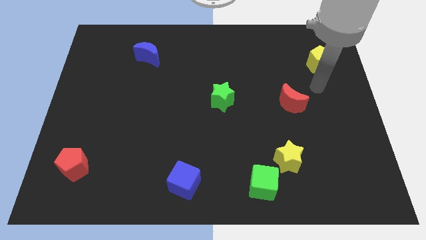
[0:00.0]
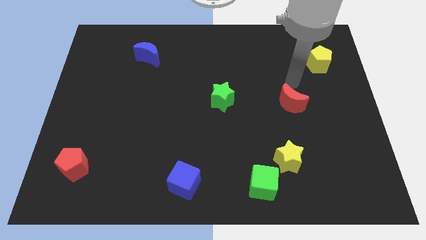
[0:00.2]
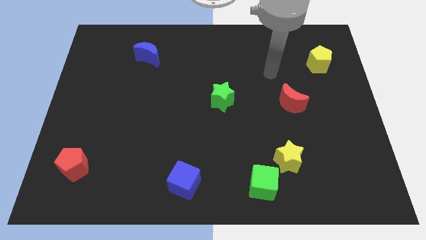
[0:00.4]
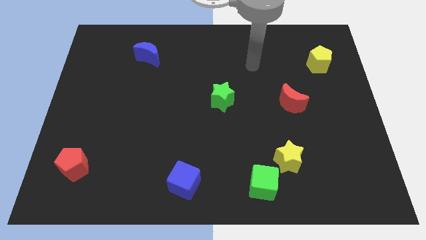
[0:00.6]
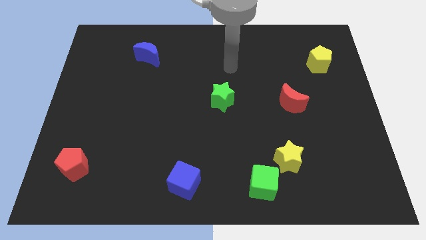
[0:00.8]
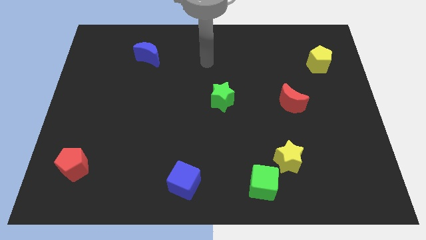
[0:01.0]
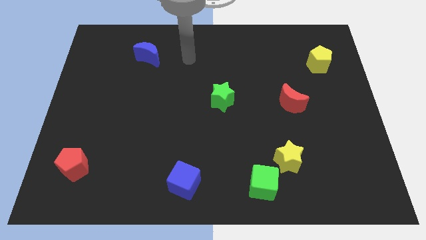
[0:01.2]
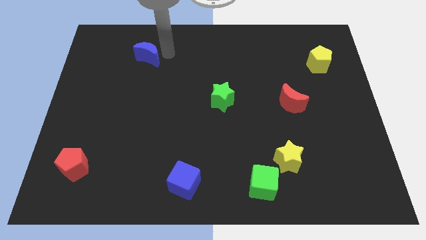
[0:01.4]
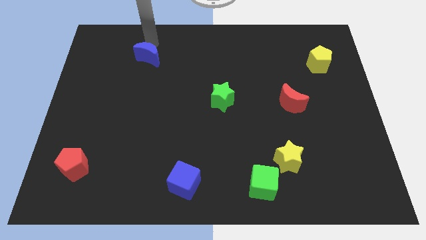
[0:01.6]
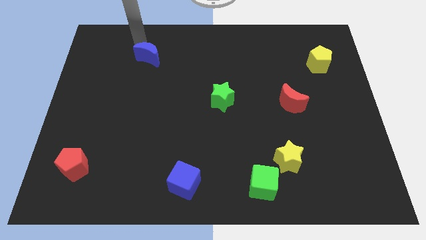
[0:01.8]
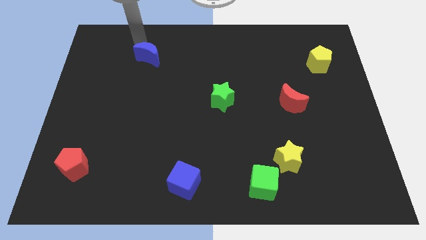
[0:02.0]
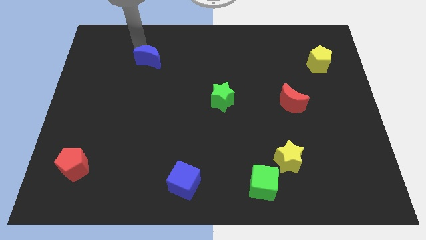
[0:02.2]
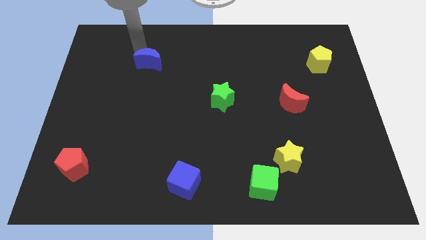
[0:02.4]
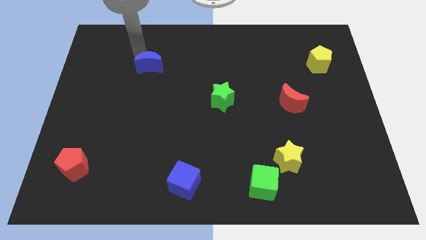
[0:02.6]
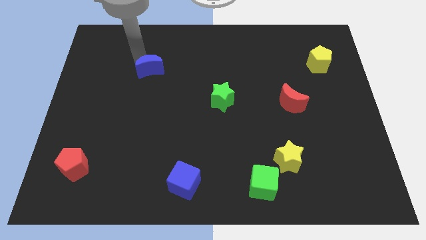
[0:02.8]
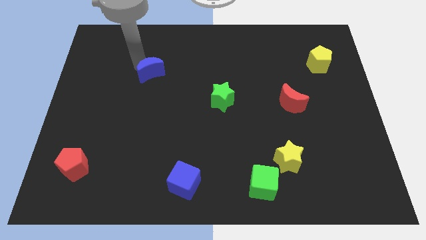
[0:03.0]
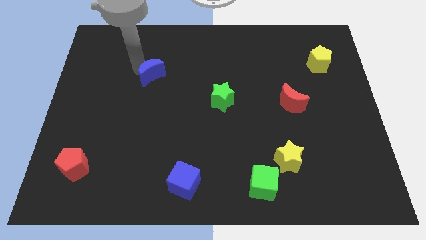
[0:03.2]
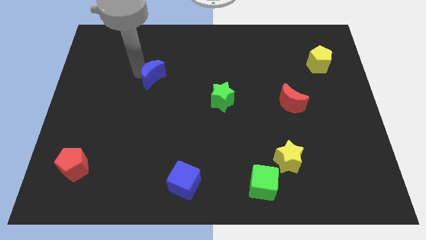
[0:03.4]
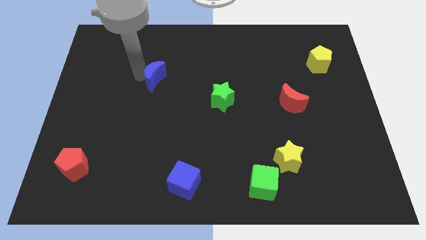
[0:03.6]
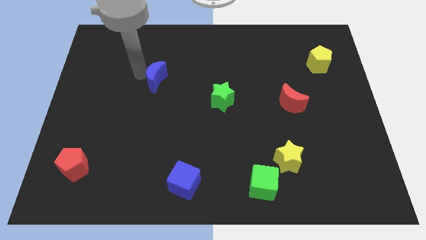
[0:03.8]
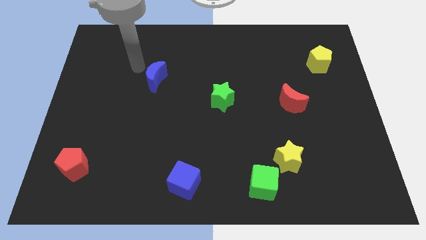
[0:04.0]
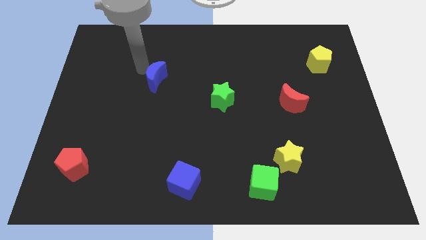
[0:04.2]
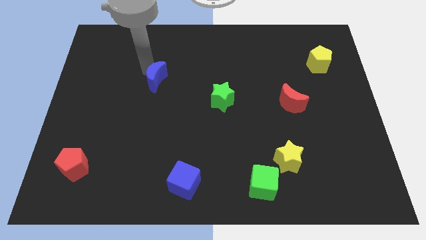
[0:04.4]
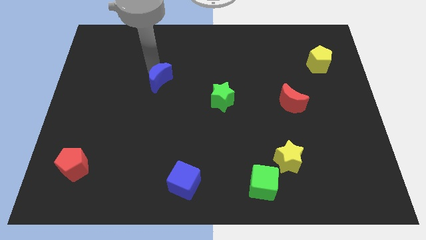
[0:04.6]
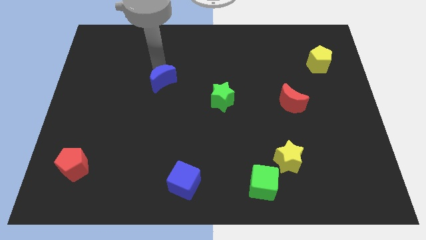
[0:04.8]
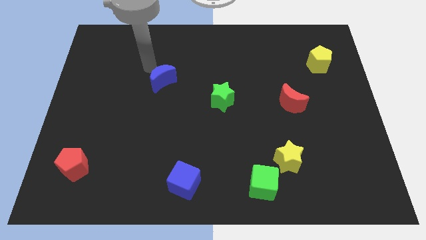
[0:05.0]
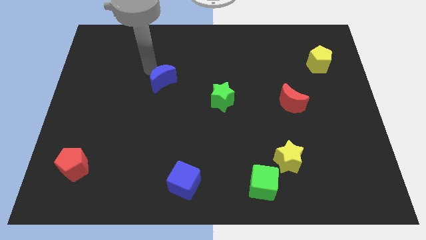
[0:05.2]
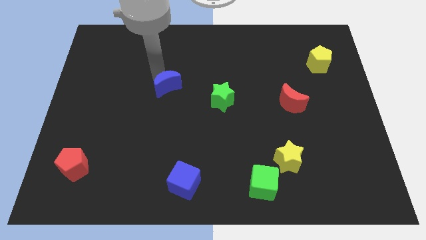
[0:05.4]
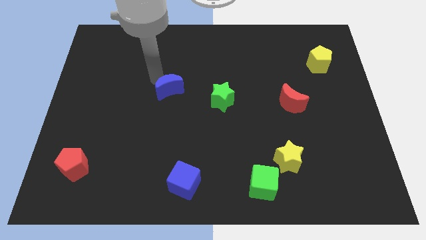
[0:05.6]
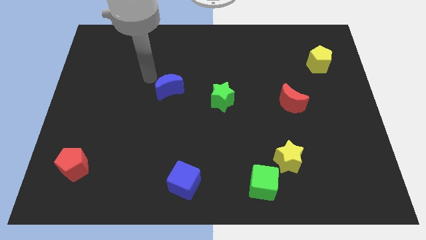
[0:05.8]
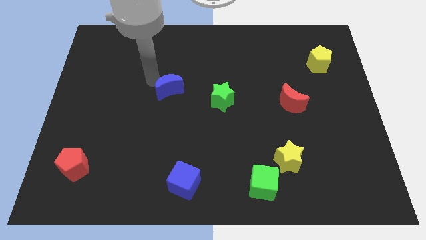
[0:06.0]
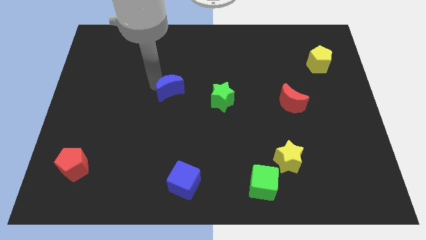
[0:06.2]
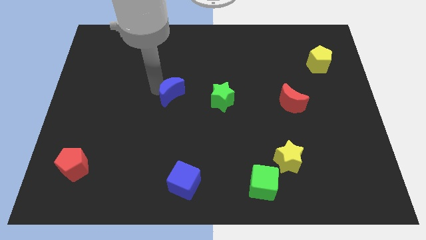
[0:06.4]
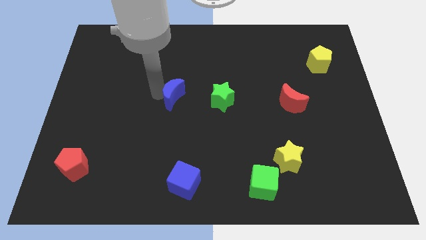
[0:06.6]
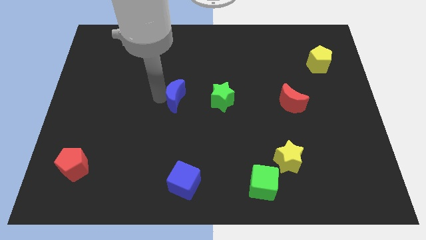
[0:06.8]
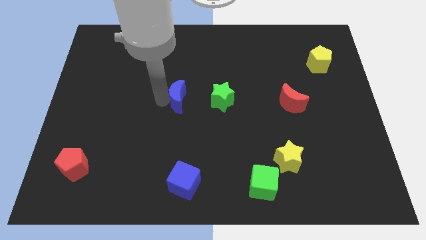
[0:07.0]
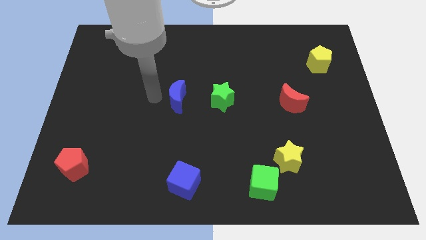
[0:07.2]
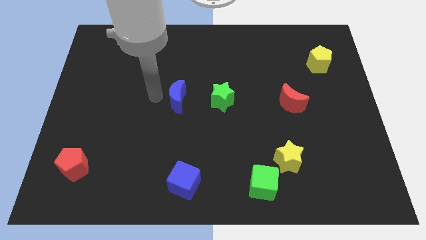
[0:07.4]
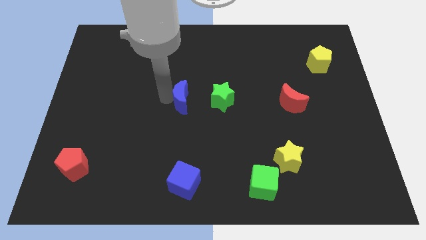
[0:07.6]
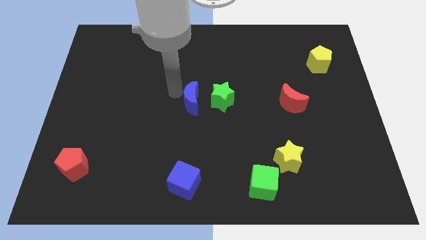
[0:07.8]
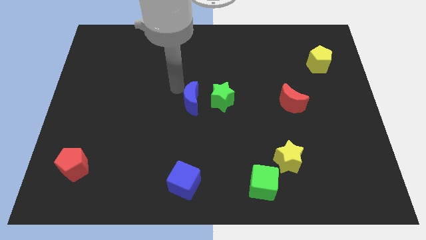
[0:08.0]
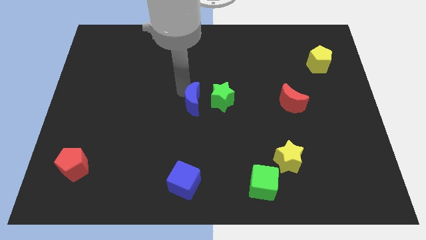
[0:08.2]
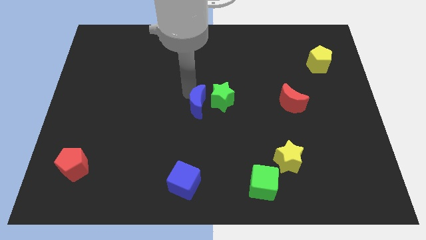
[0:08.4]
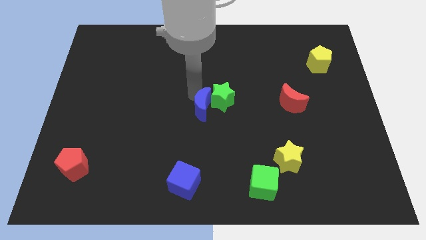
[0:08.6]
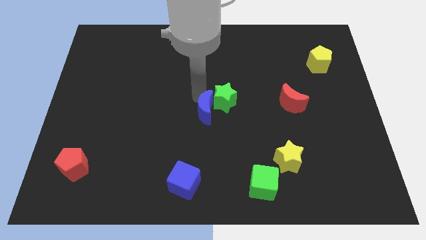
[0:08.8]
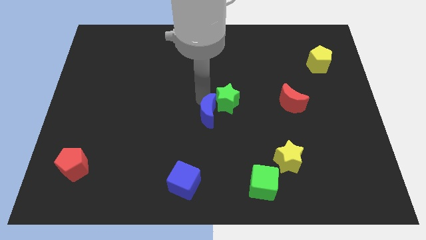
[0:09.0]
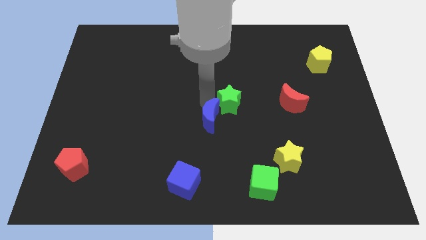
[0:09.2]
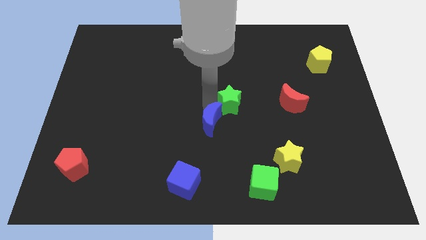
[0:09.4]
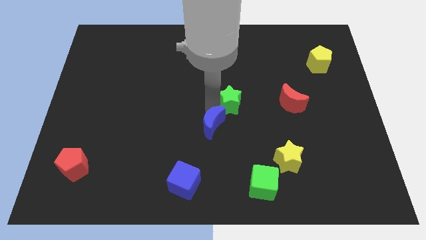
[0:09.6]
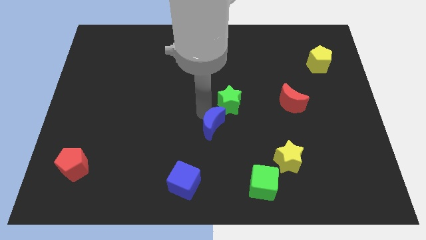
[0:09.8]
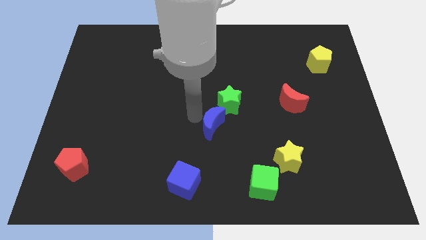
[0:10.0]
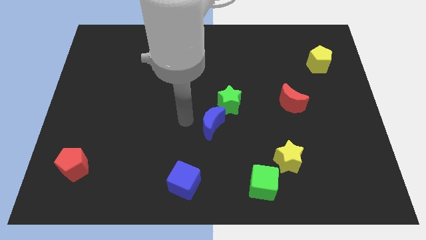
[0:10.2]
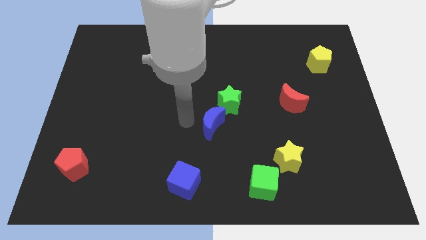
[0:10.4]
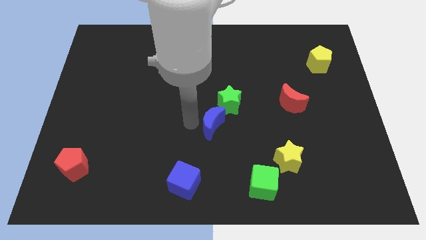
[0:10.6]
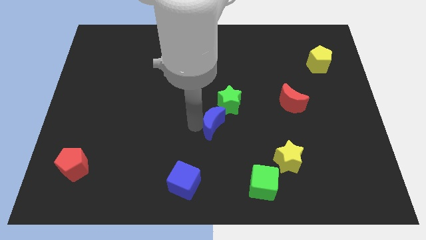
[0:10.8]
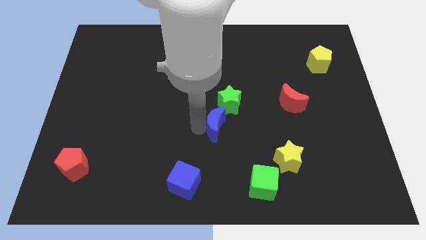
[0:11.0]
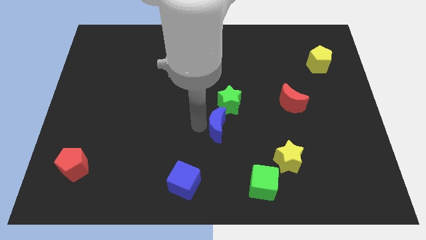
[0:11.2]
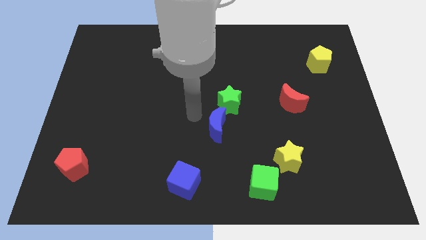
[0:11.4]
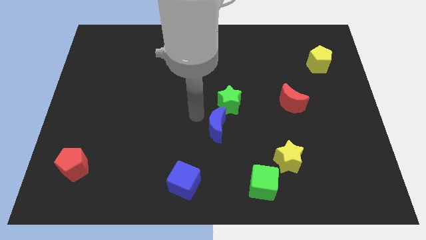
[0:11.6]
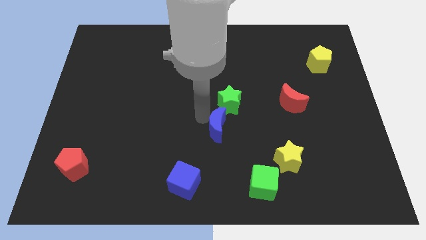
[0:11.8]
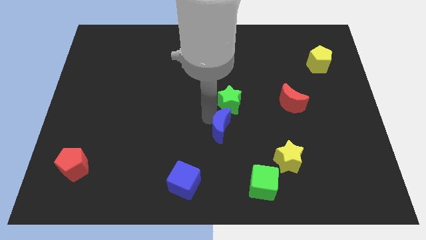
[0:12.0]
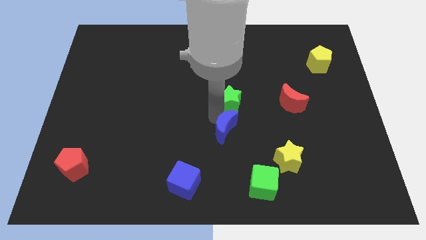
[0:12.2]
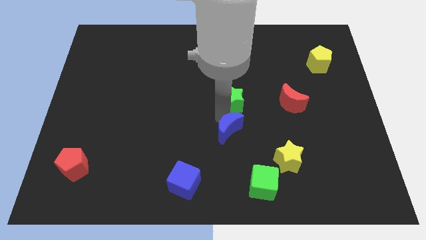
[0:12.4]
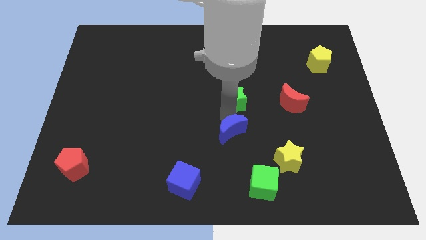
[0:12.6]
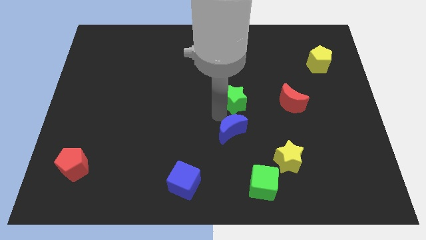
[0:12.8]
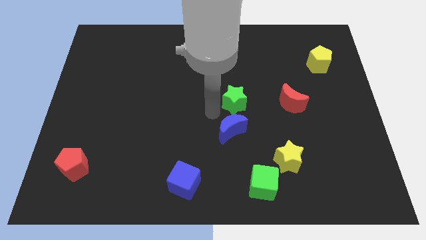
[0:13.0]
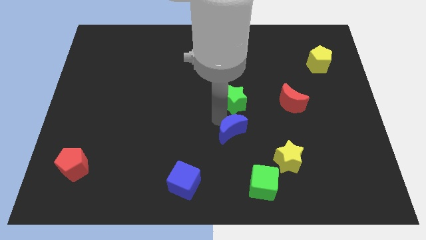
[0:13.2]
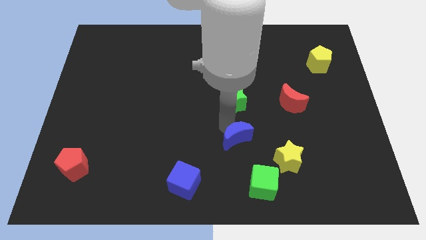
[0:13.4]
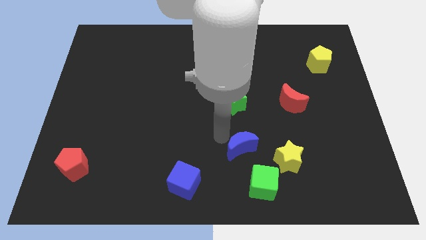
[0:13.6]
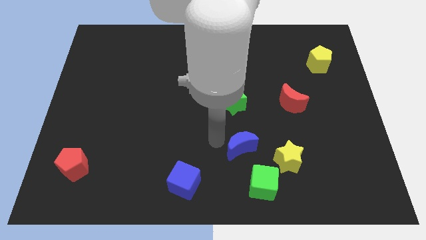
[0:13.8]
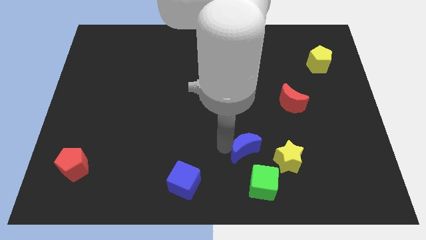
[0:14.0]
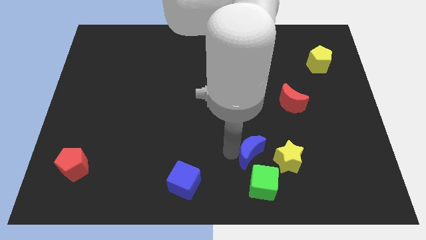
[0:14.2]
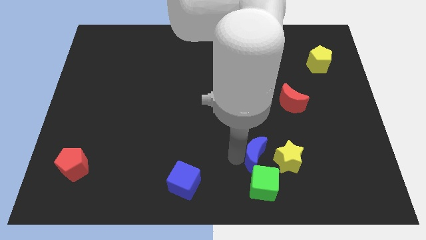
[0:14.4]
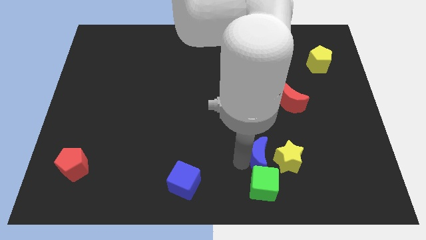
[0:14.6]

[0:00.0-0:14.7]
put the blue moon to the yellow star
